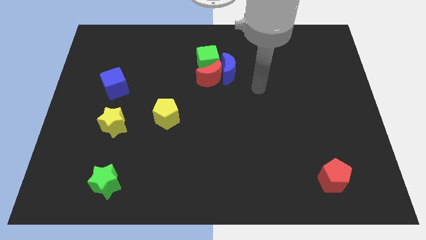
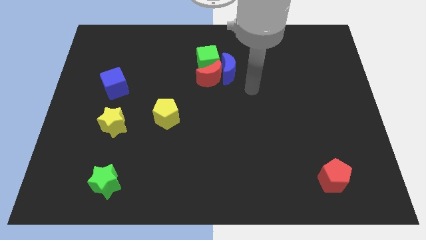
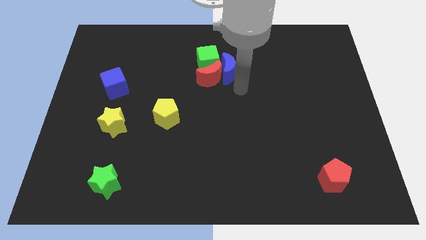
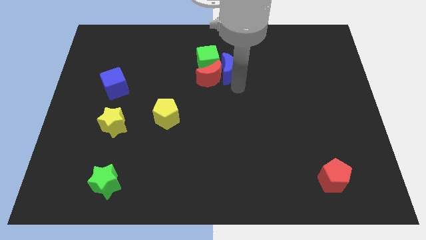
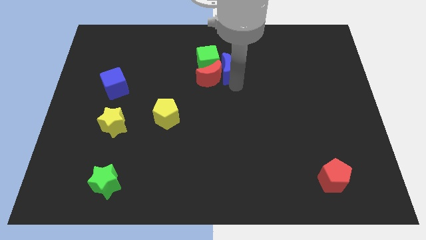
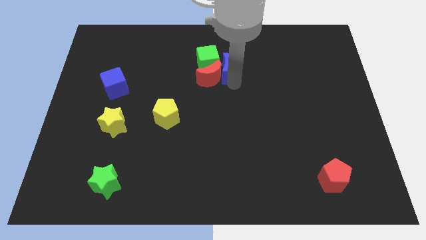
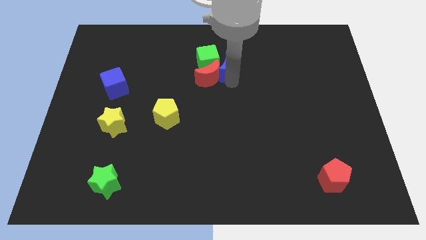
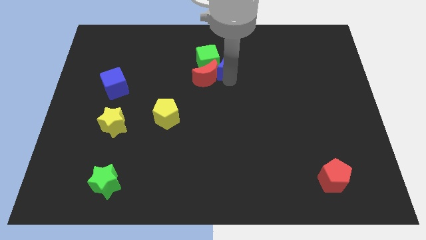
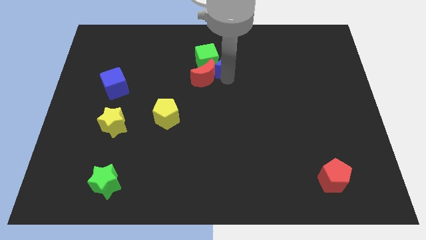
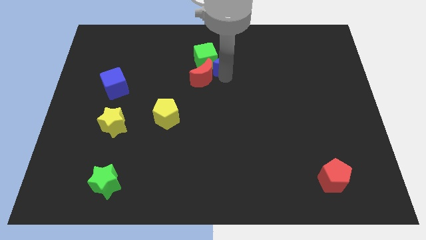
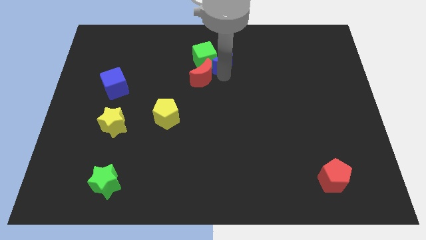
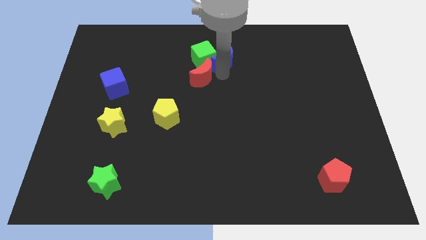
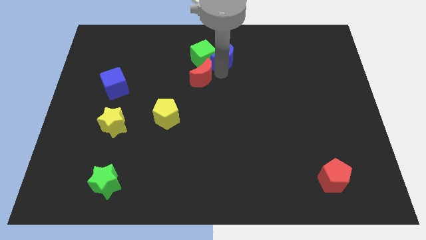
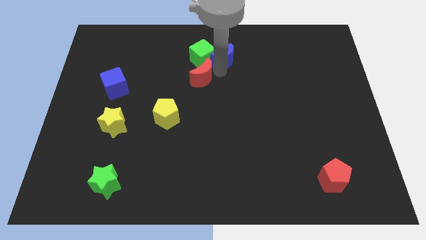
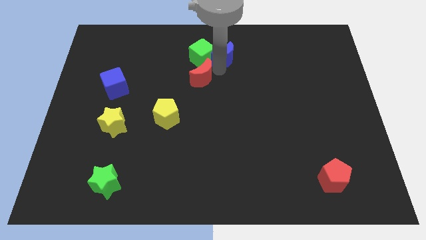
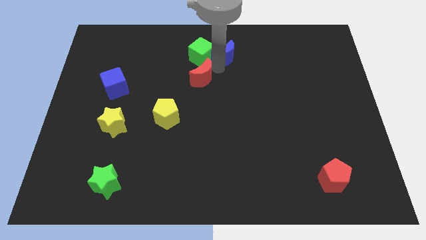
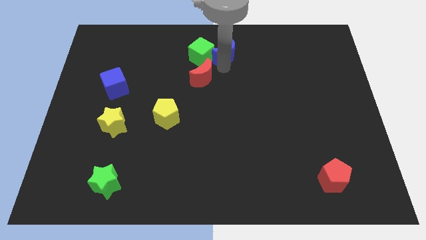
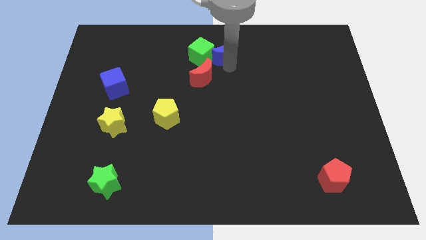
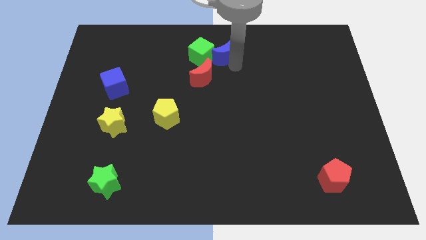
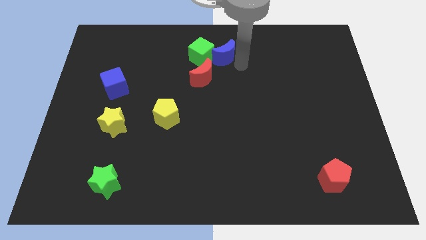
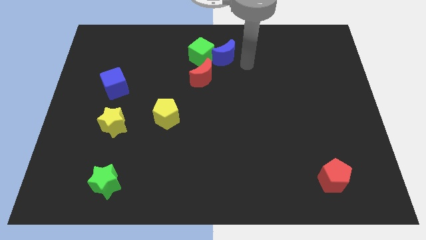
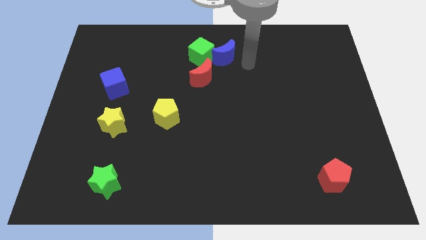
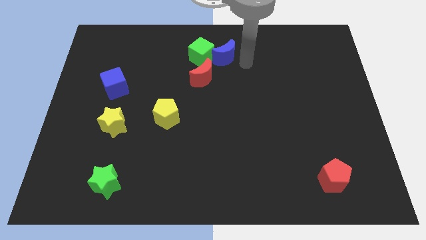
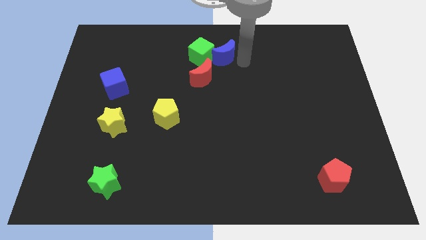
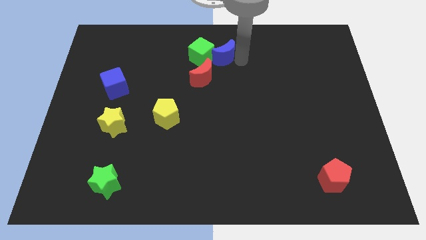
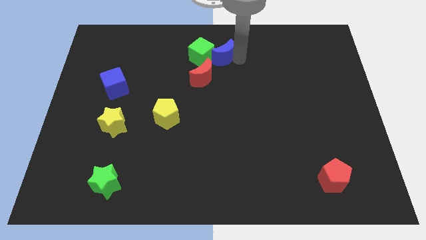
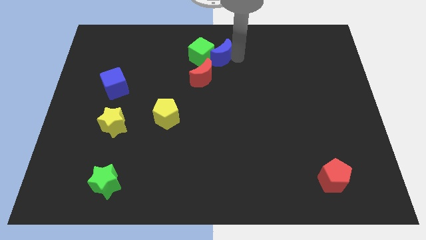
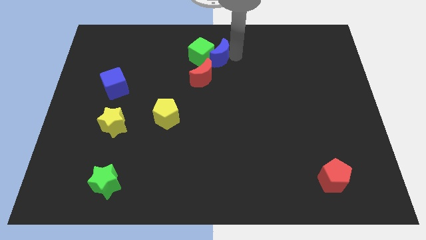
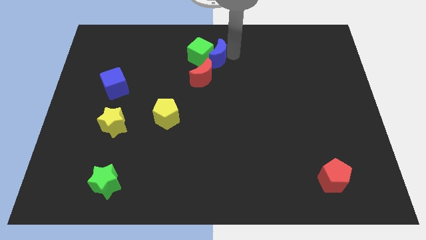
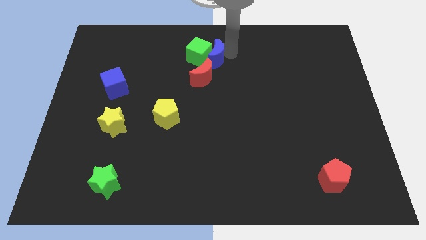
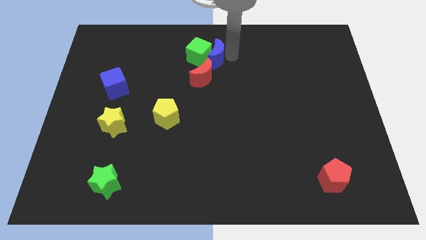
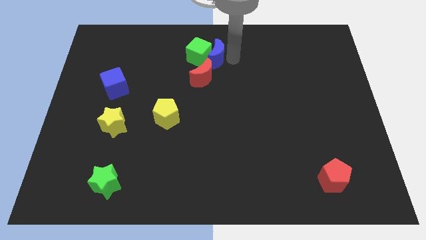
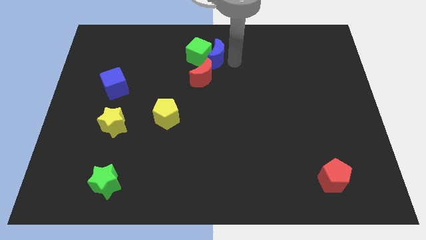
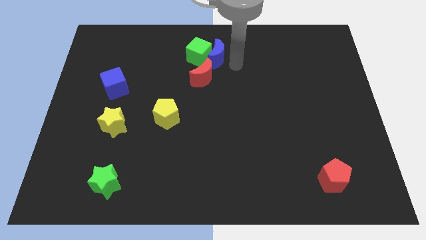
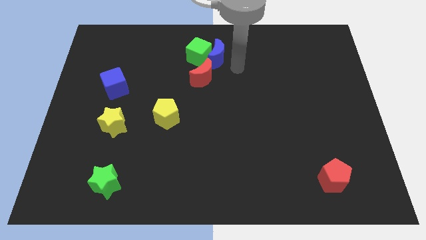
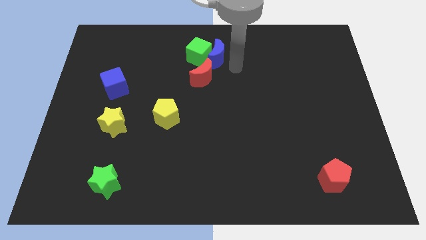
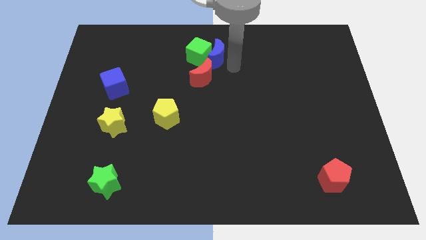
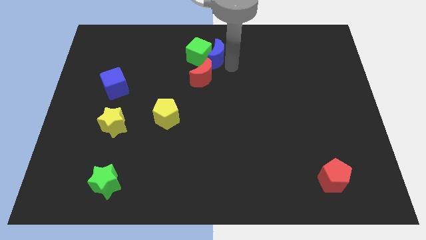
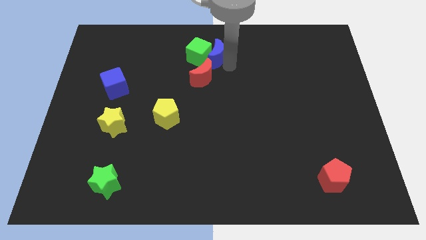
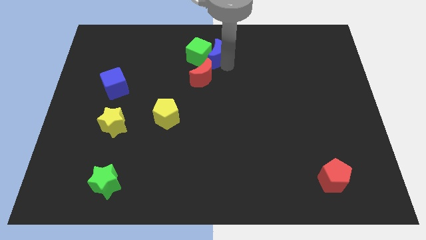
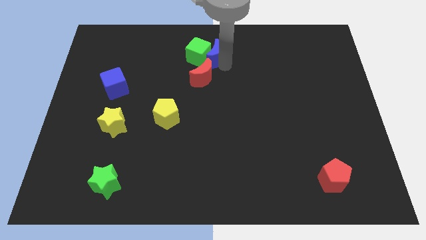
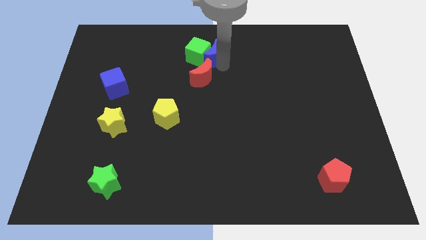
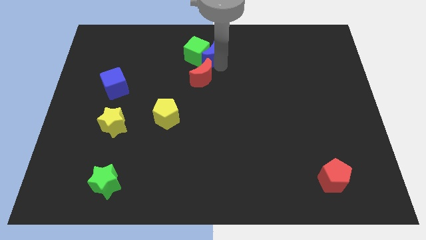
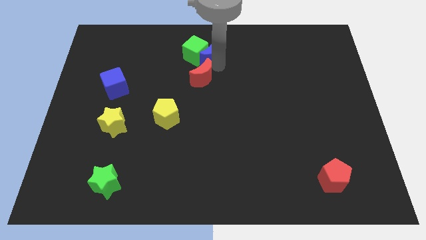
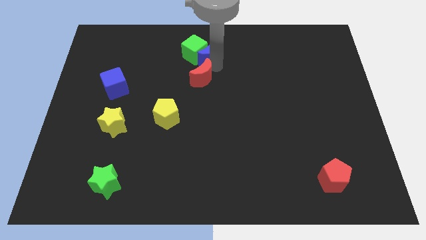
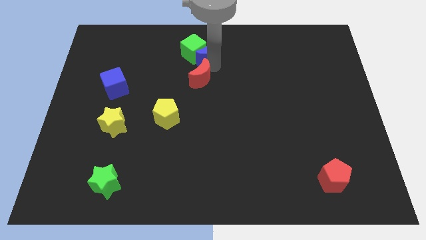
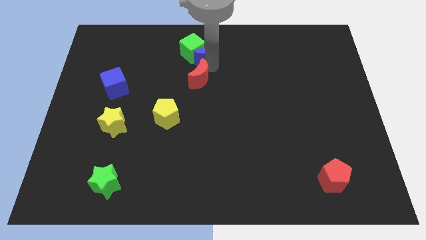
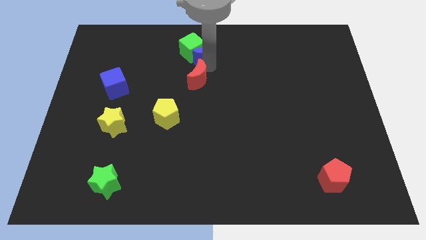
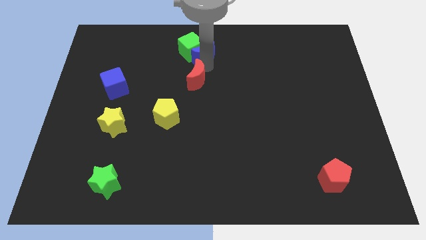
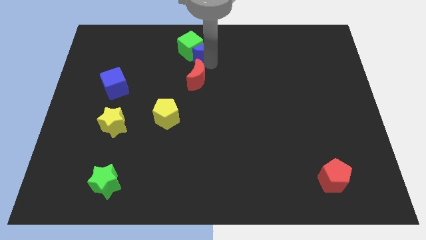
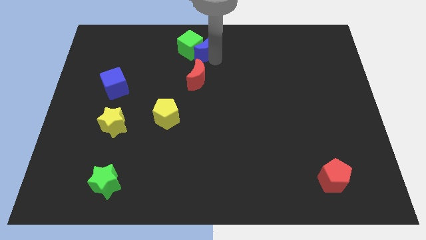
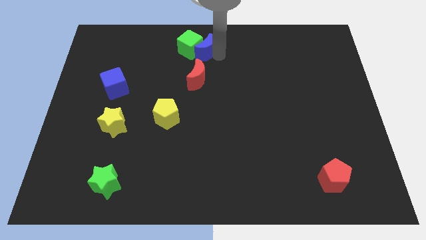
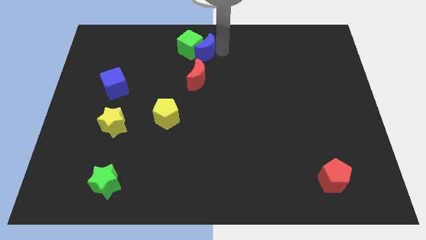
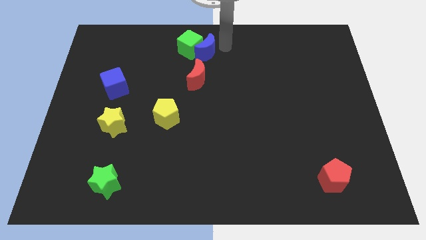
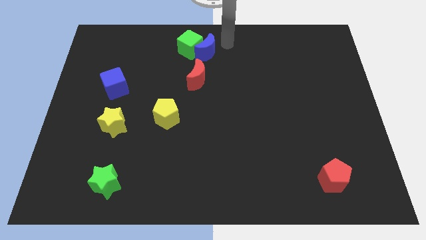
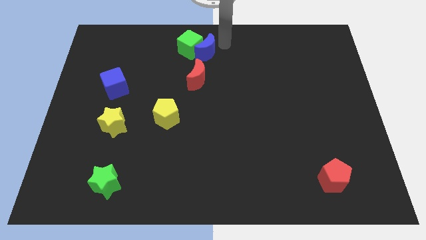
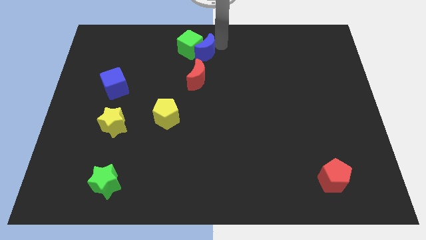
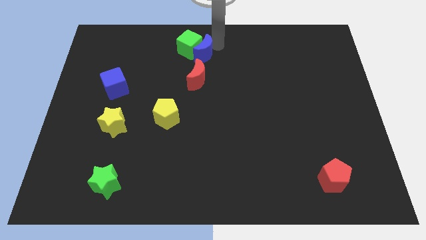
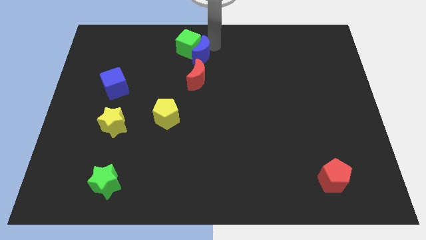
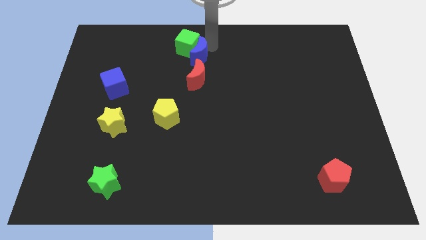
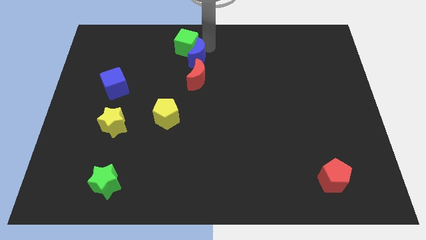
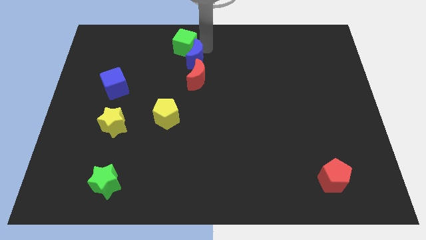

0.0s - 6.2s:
move the blue moon to the top left of the red moon
